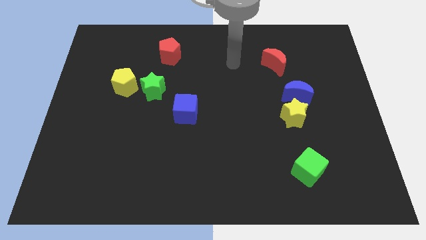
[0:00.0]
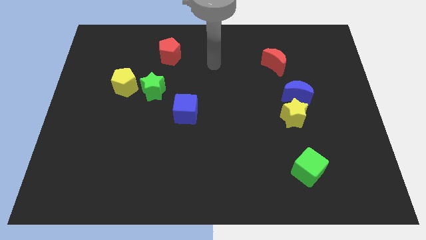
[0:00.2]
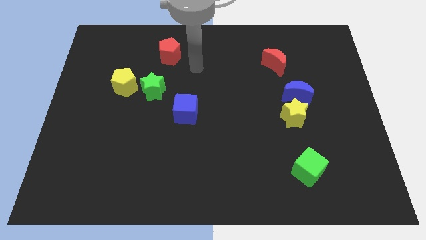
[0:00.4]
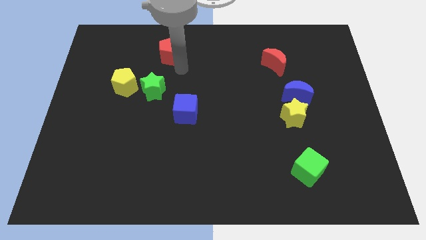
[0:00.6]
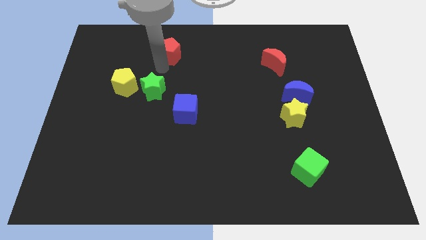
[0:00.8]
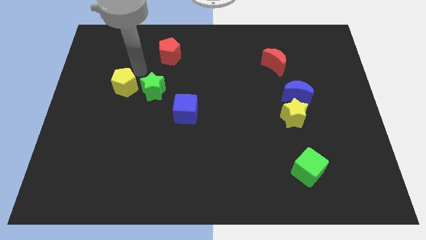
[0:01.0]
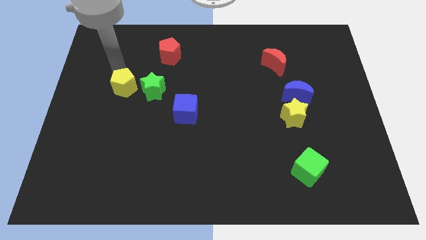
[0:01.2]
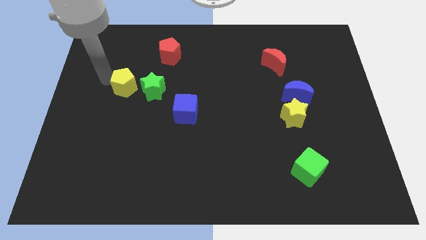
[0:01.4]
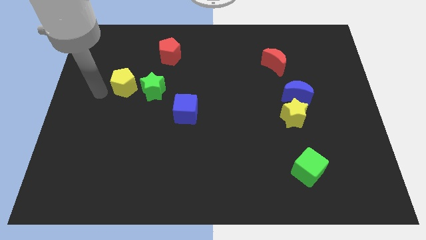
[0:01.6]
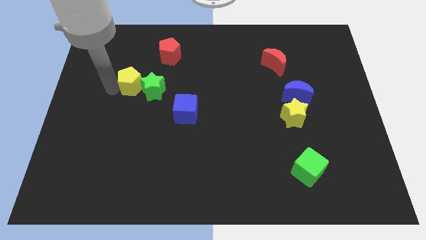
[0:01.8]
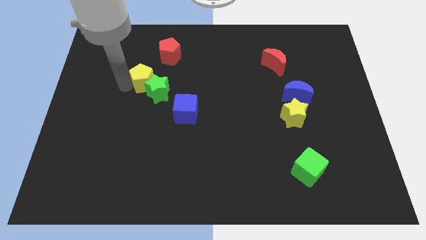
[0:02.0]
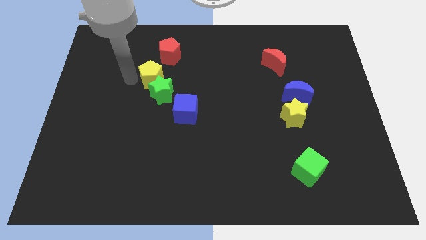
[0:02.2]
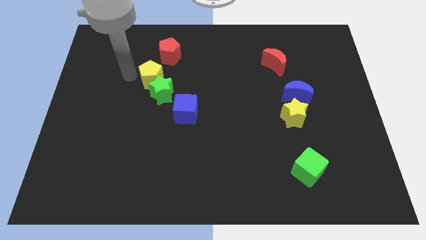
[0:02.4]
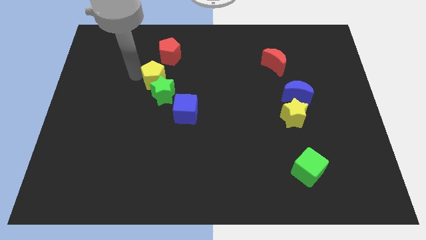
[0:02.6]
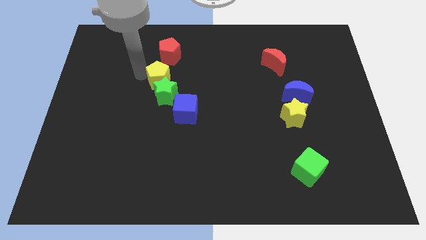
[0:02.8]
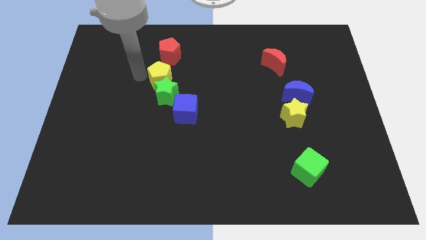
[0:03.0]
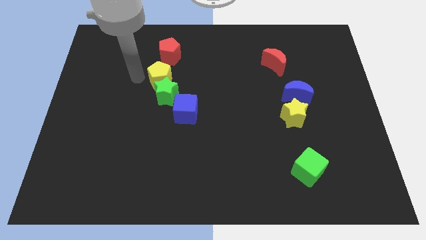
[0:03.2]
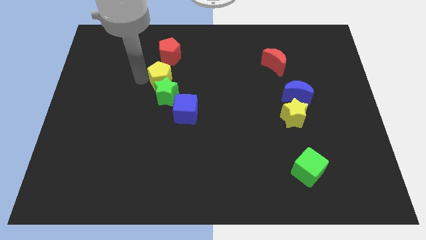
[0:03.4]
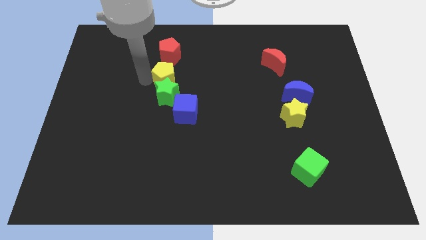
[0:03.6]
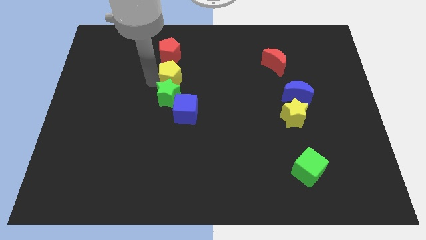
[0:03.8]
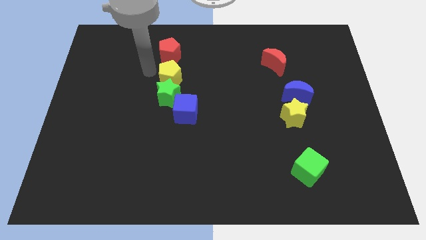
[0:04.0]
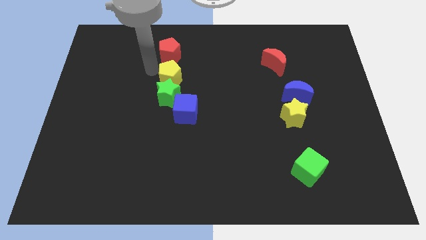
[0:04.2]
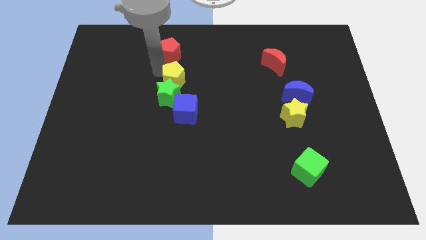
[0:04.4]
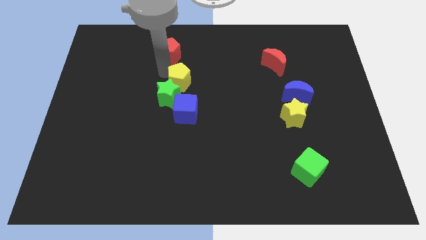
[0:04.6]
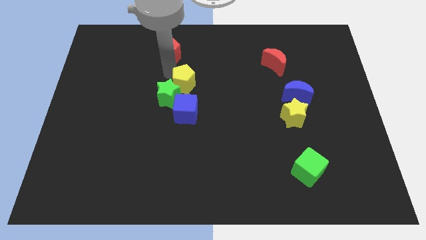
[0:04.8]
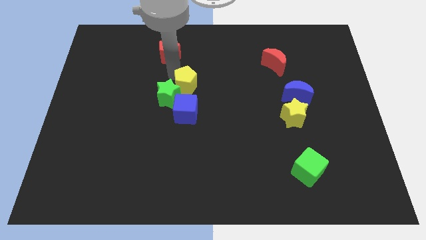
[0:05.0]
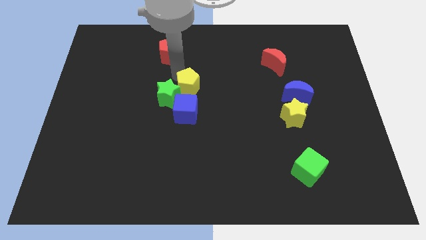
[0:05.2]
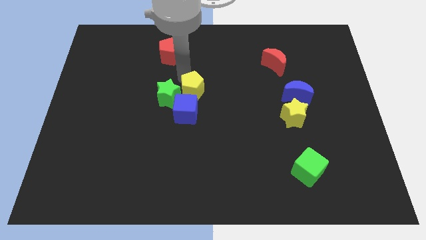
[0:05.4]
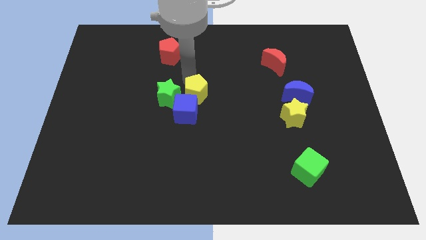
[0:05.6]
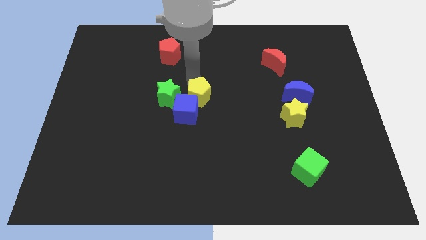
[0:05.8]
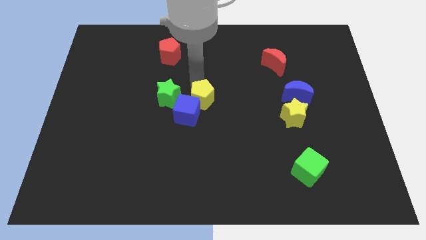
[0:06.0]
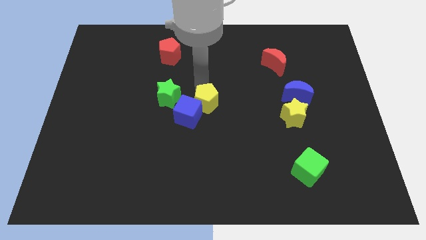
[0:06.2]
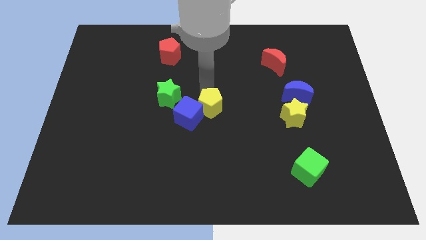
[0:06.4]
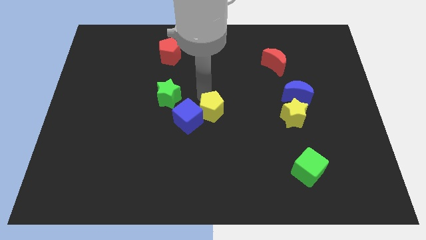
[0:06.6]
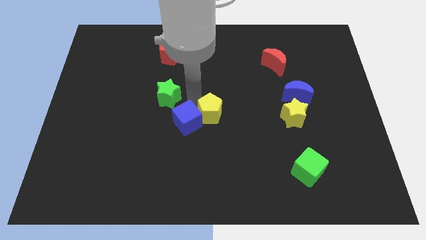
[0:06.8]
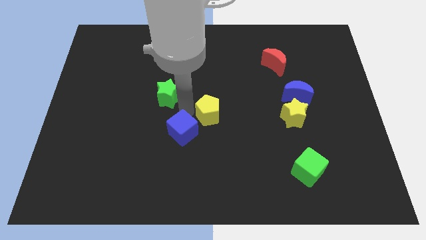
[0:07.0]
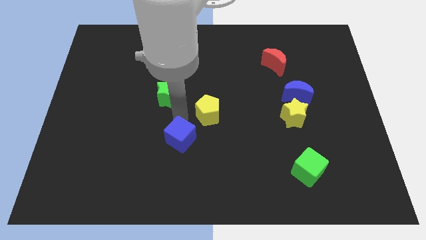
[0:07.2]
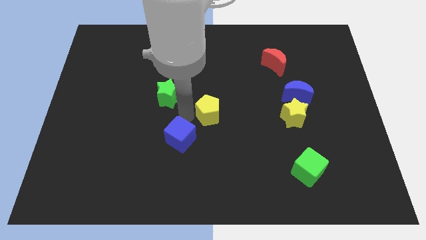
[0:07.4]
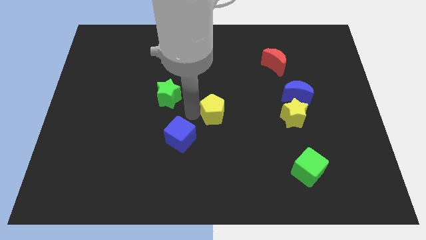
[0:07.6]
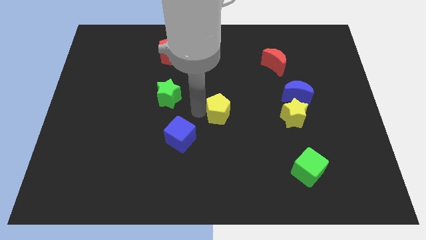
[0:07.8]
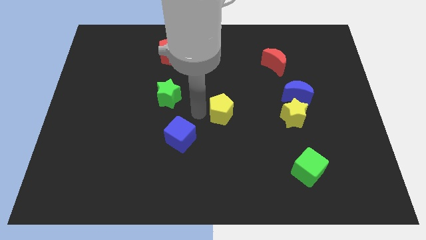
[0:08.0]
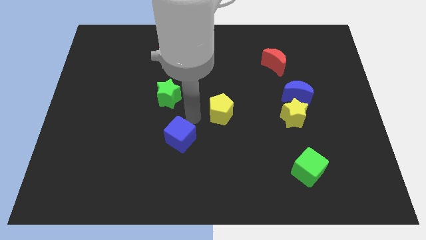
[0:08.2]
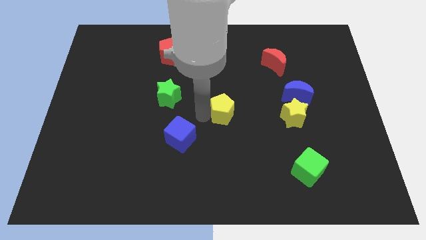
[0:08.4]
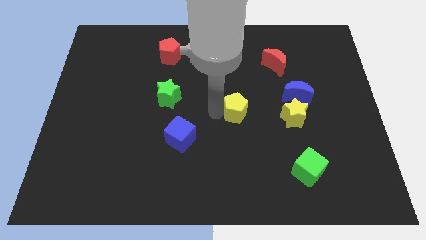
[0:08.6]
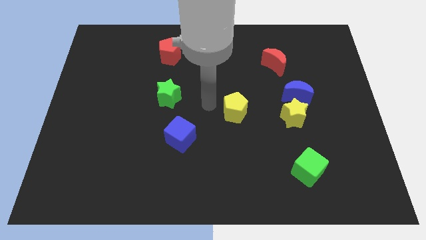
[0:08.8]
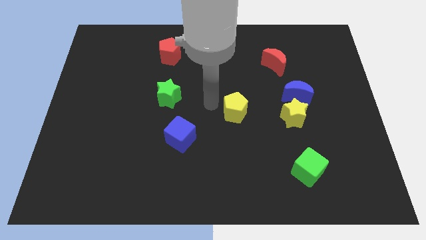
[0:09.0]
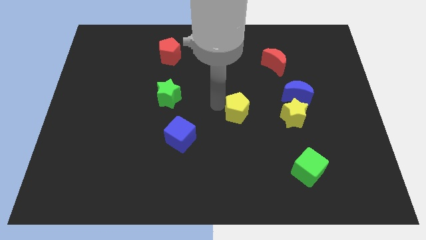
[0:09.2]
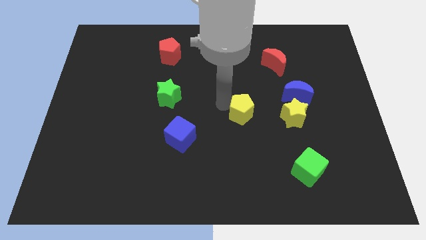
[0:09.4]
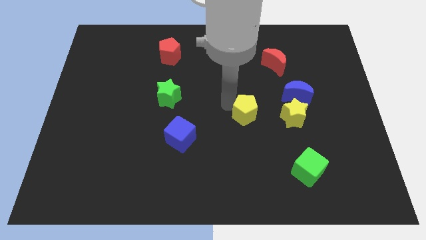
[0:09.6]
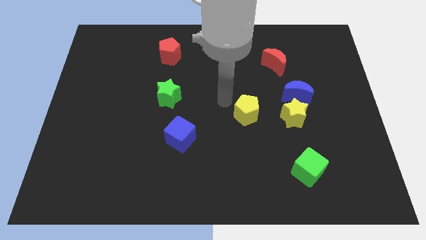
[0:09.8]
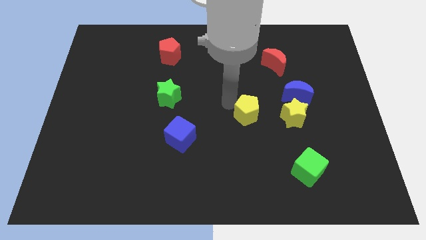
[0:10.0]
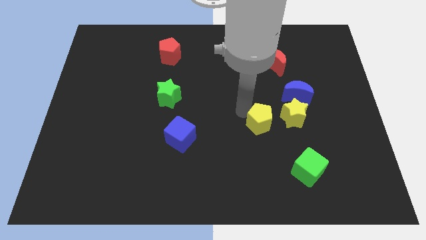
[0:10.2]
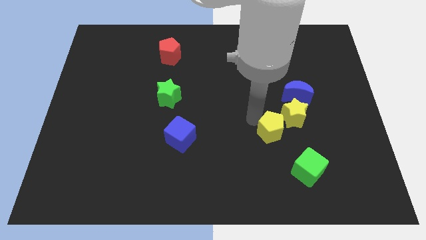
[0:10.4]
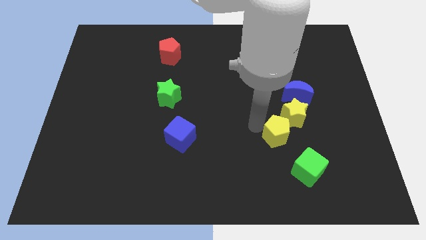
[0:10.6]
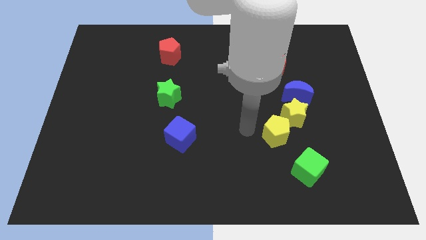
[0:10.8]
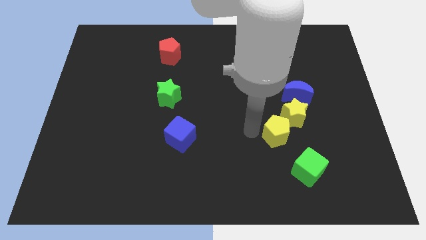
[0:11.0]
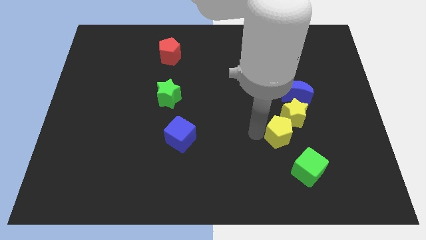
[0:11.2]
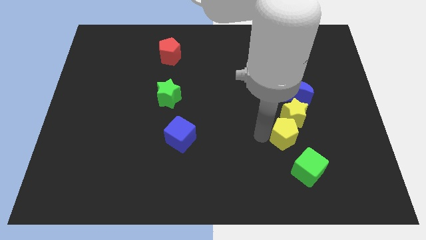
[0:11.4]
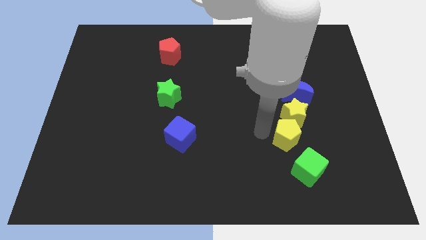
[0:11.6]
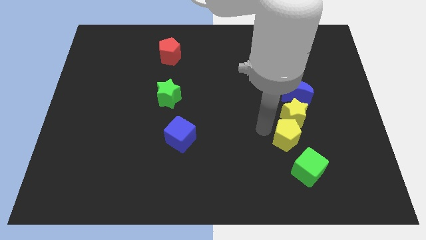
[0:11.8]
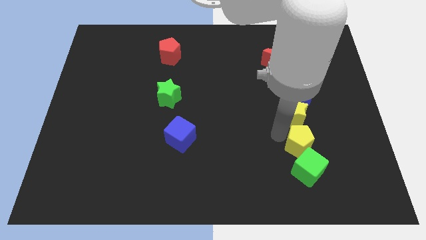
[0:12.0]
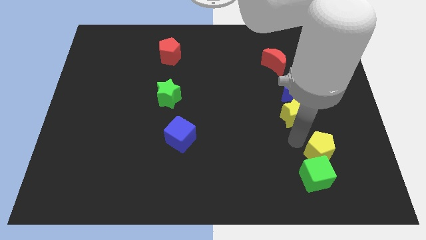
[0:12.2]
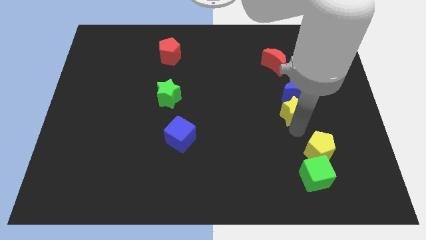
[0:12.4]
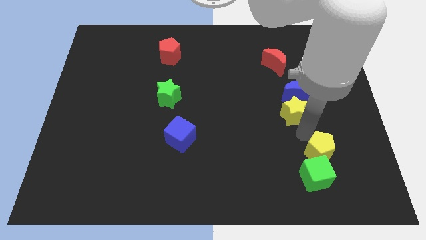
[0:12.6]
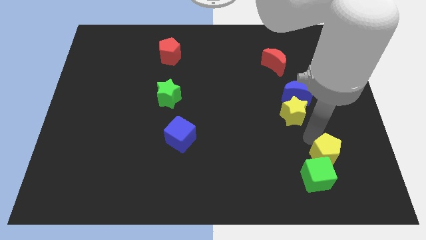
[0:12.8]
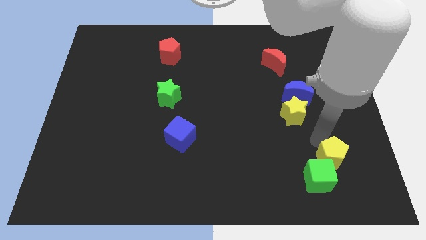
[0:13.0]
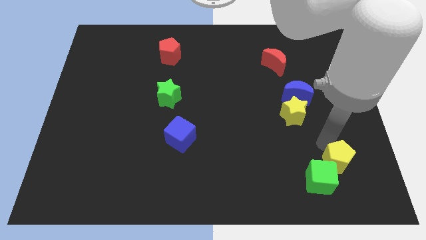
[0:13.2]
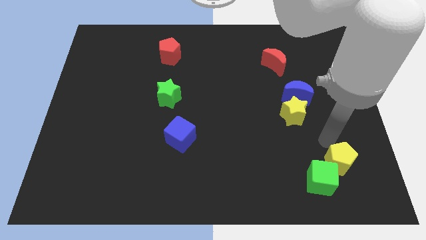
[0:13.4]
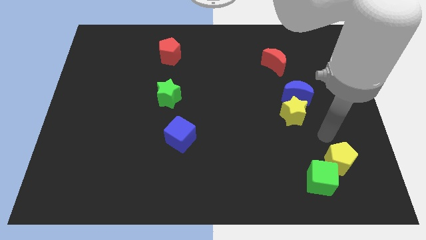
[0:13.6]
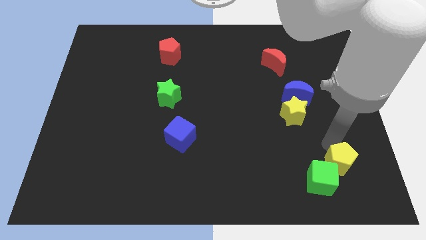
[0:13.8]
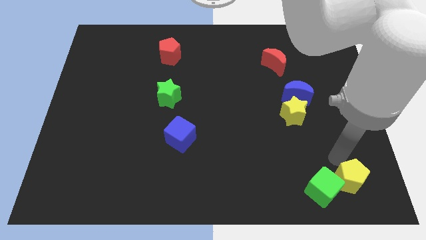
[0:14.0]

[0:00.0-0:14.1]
put the yellow pentagon to the lower right corner

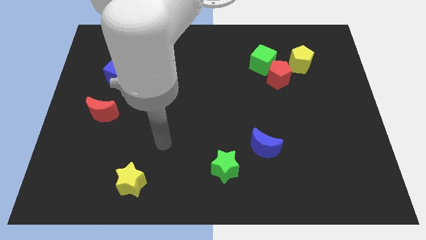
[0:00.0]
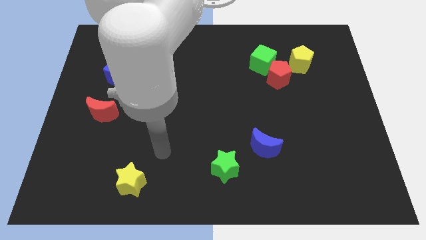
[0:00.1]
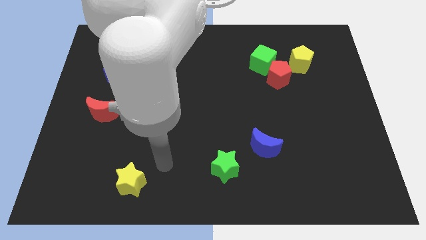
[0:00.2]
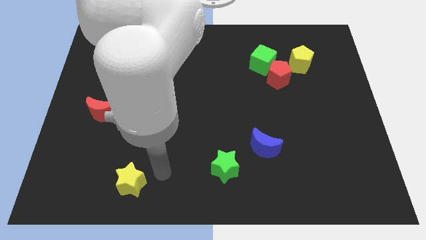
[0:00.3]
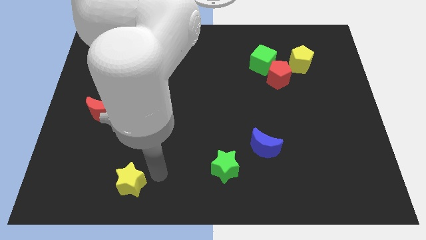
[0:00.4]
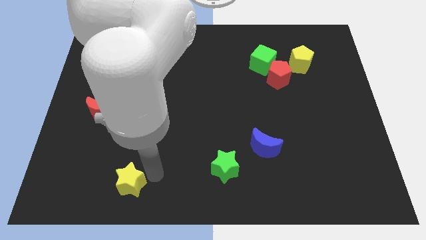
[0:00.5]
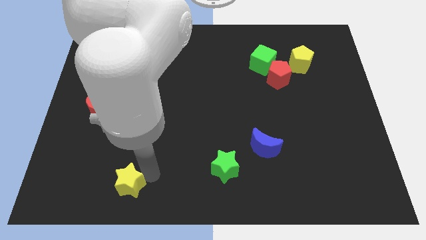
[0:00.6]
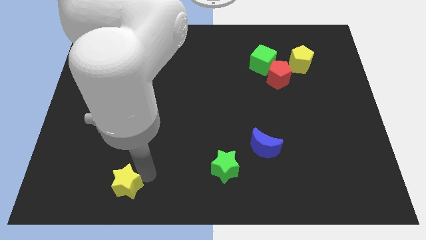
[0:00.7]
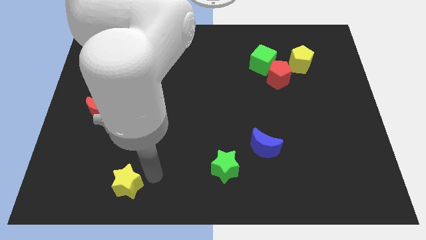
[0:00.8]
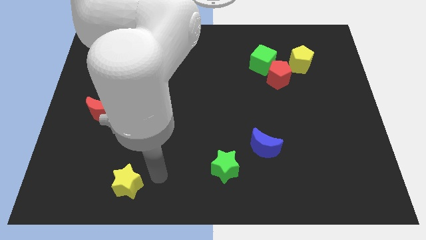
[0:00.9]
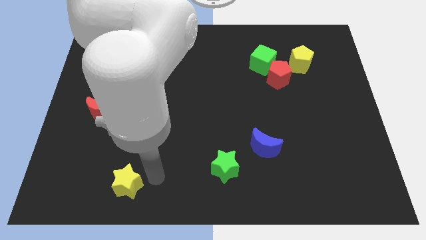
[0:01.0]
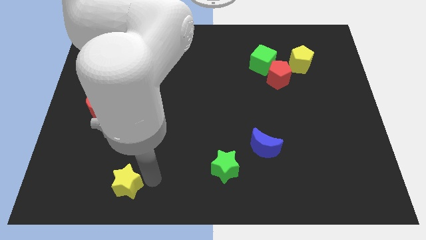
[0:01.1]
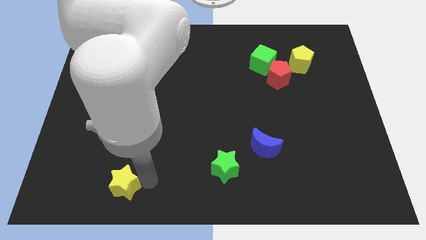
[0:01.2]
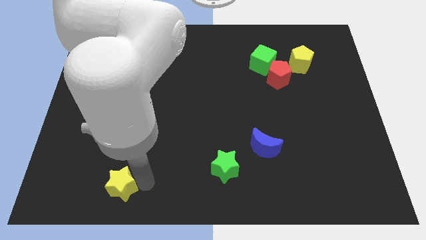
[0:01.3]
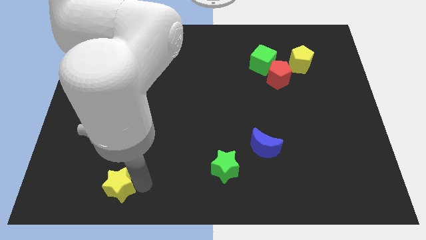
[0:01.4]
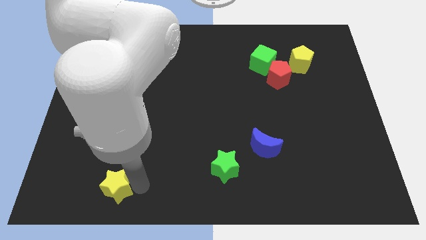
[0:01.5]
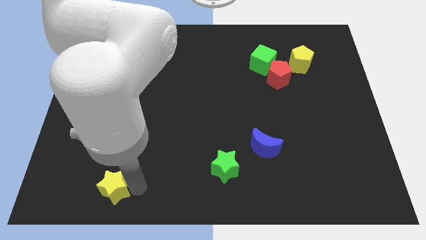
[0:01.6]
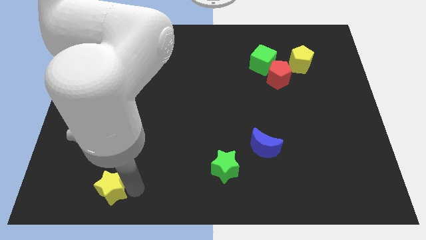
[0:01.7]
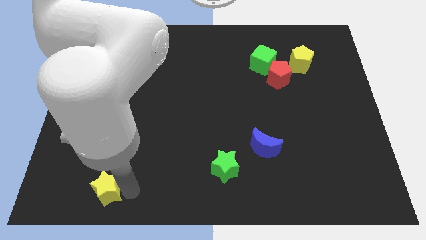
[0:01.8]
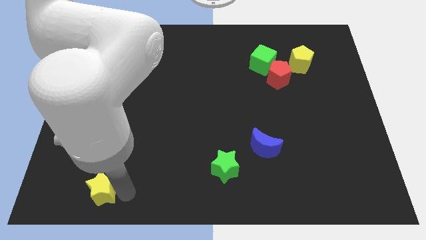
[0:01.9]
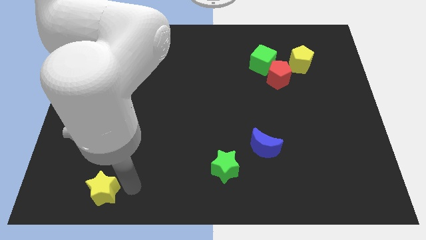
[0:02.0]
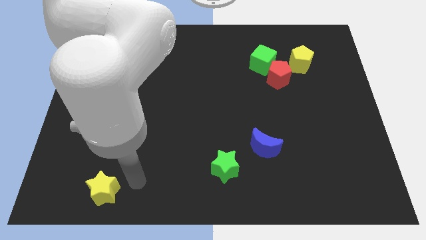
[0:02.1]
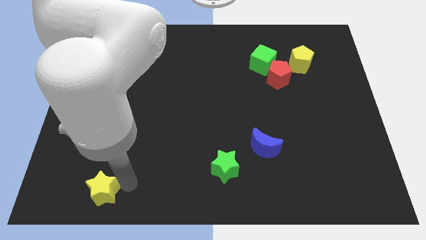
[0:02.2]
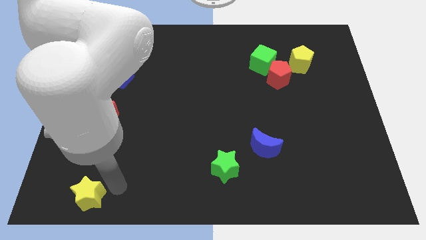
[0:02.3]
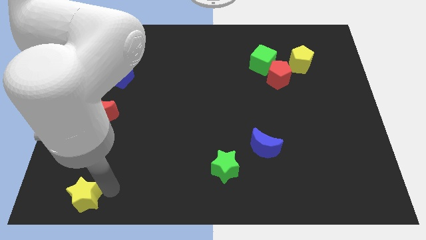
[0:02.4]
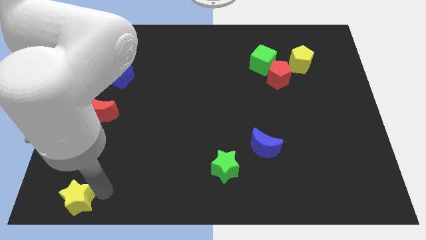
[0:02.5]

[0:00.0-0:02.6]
slide the yellow star to the bottom left
